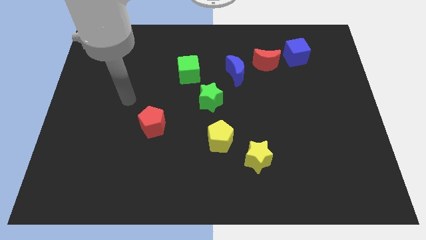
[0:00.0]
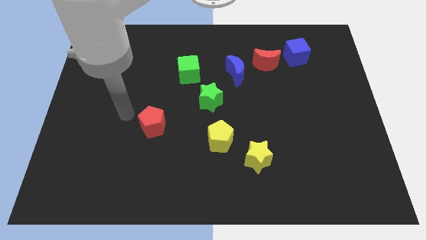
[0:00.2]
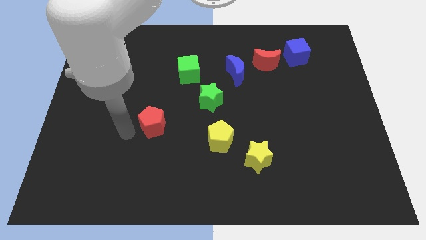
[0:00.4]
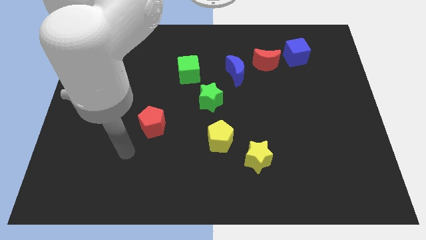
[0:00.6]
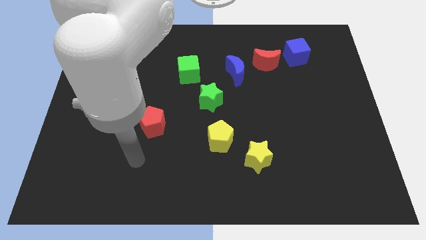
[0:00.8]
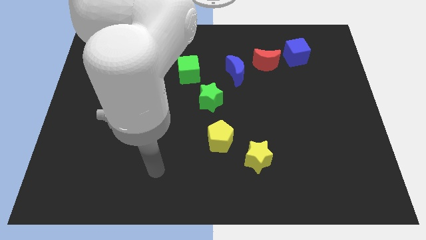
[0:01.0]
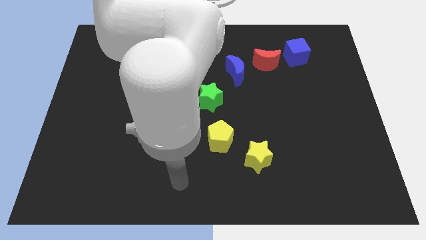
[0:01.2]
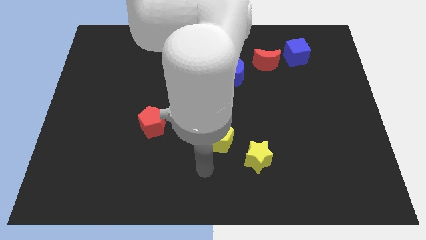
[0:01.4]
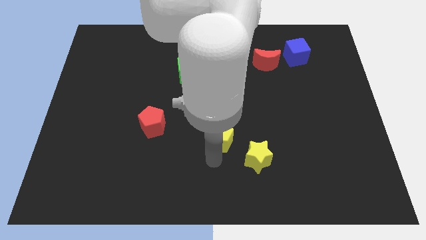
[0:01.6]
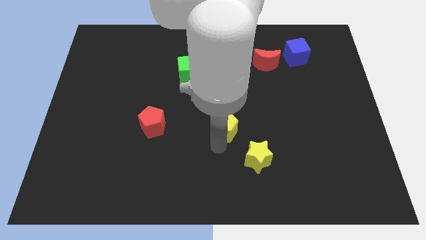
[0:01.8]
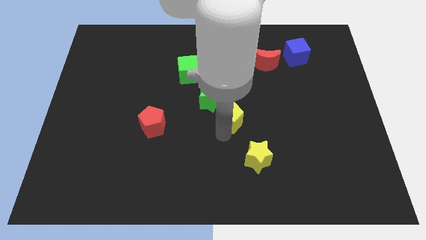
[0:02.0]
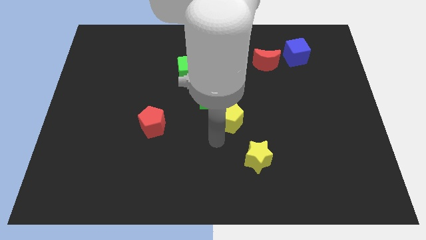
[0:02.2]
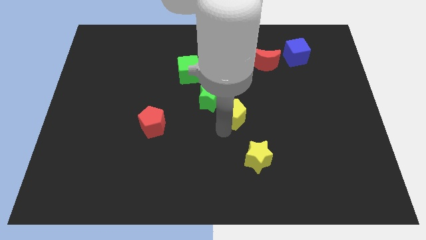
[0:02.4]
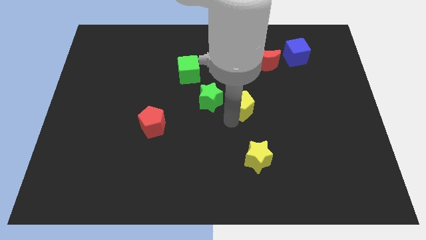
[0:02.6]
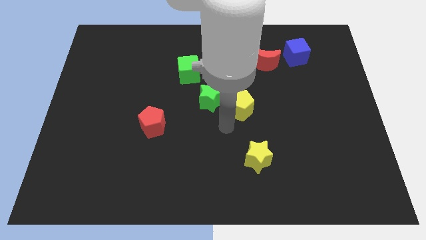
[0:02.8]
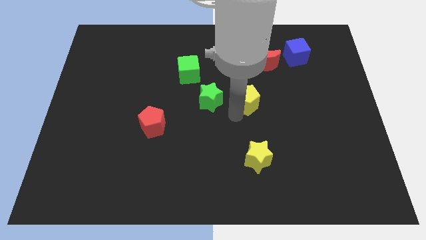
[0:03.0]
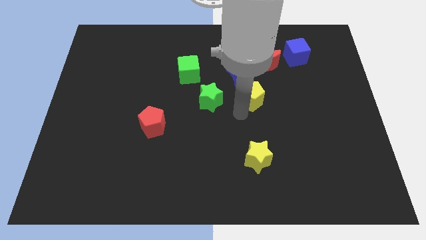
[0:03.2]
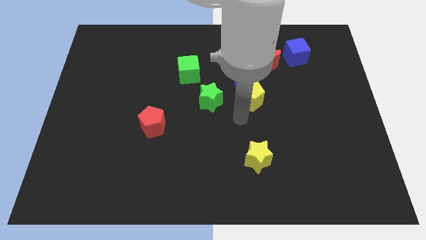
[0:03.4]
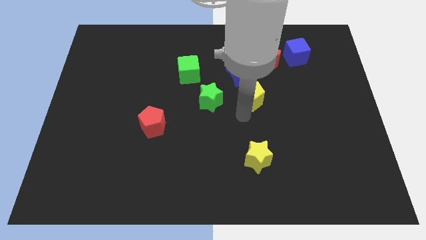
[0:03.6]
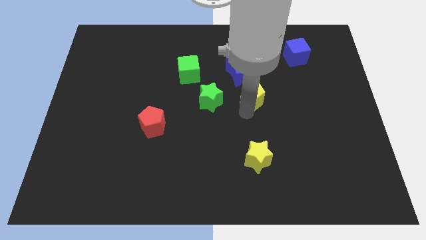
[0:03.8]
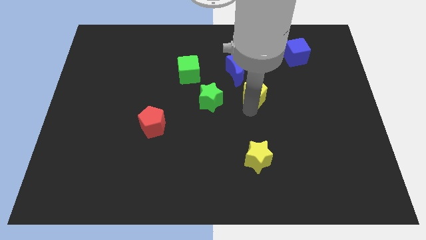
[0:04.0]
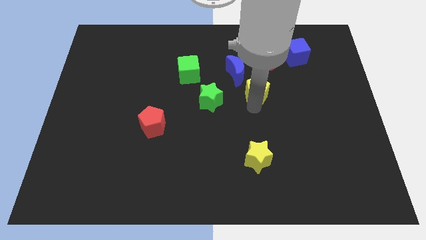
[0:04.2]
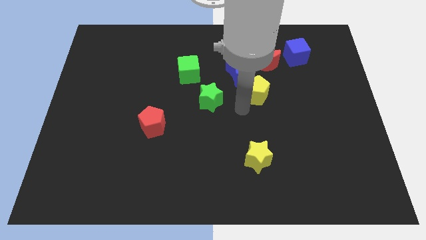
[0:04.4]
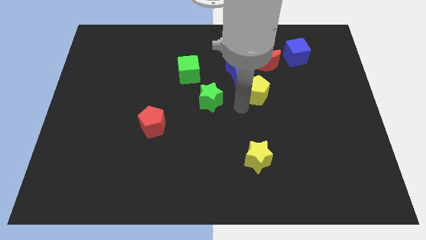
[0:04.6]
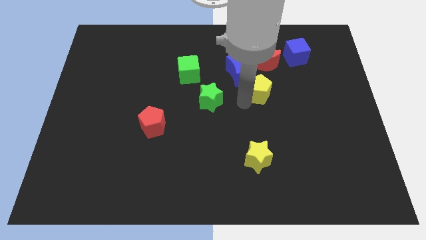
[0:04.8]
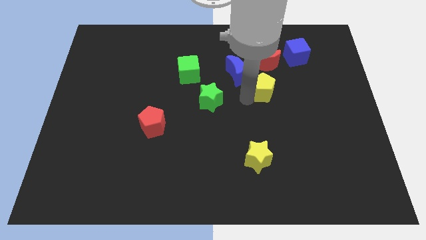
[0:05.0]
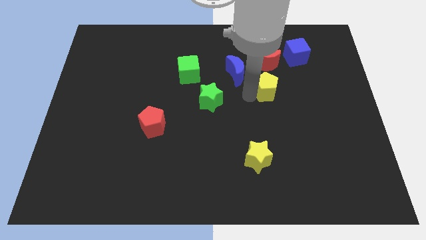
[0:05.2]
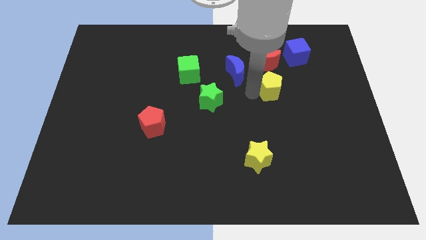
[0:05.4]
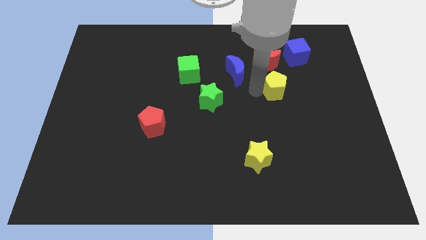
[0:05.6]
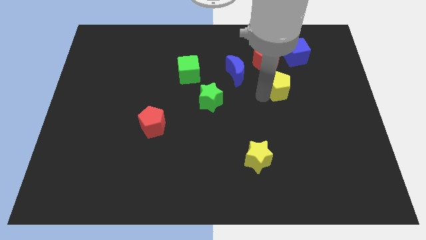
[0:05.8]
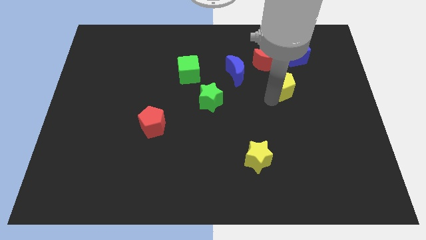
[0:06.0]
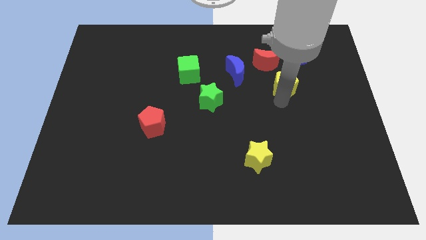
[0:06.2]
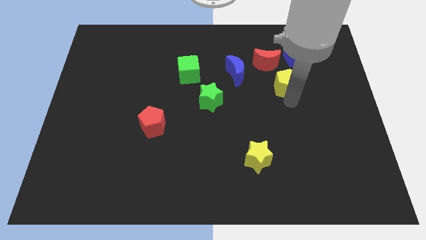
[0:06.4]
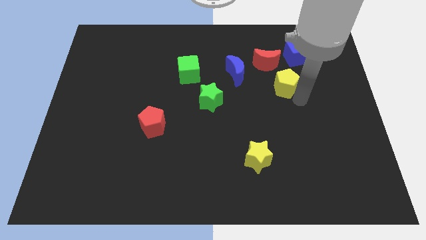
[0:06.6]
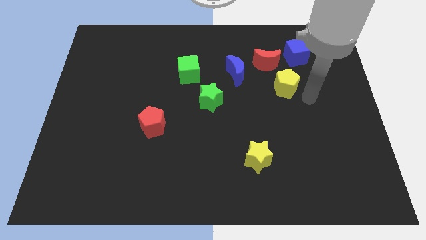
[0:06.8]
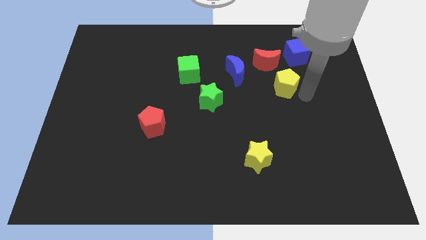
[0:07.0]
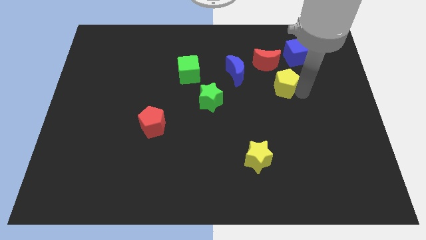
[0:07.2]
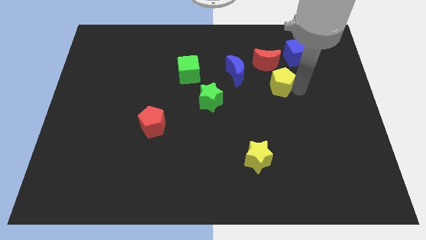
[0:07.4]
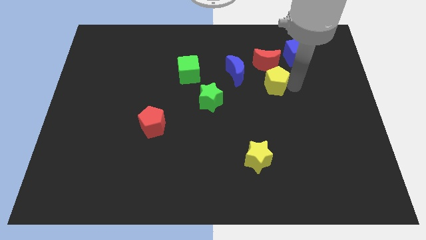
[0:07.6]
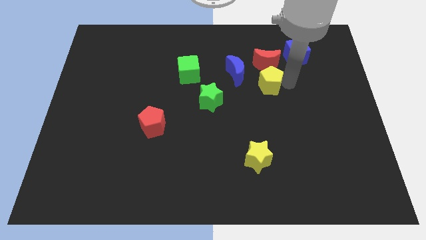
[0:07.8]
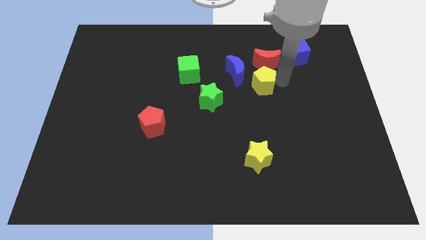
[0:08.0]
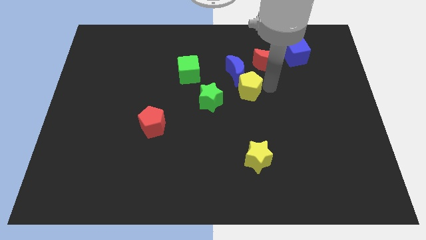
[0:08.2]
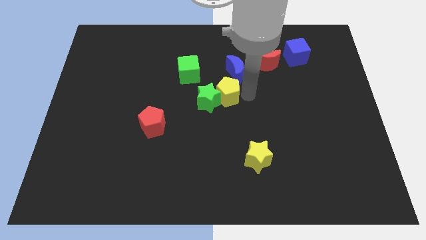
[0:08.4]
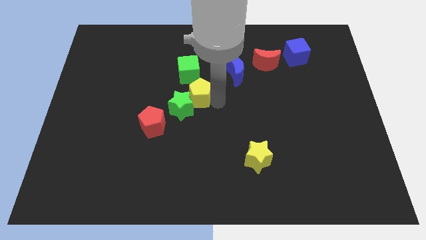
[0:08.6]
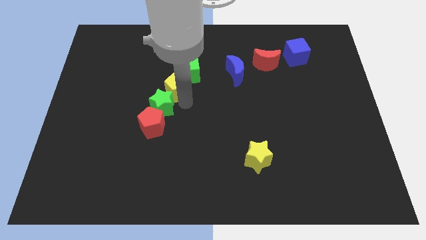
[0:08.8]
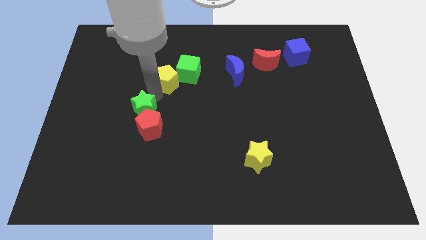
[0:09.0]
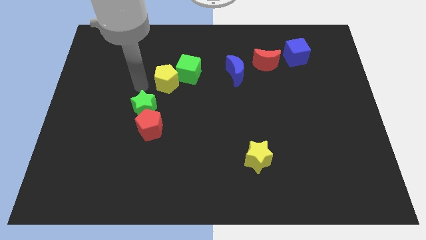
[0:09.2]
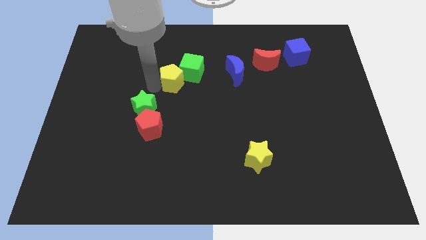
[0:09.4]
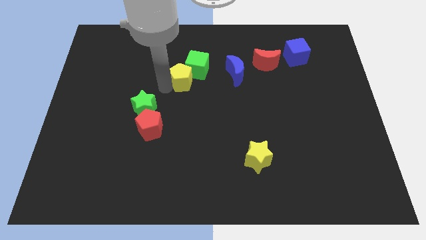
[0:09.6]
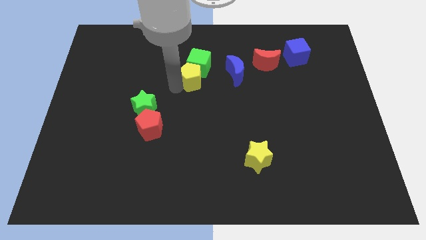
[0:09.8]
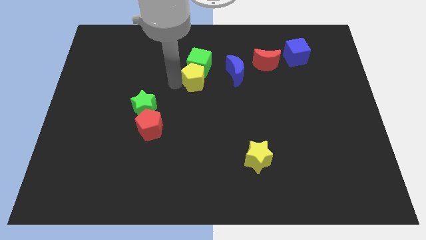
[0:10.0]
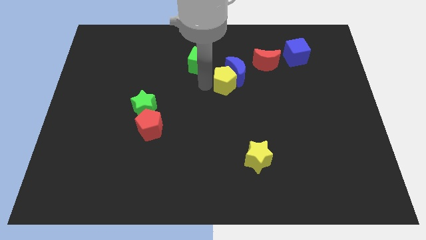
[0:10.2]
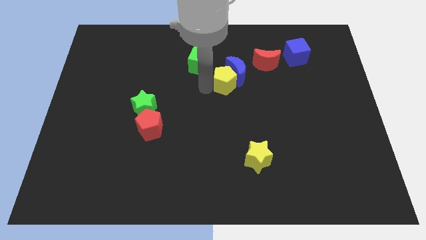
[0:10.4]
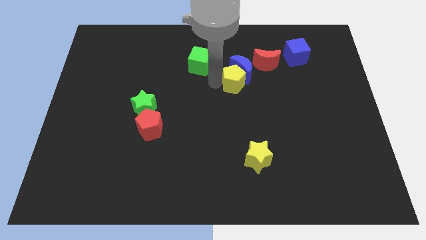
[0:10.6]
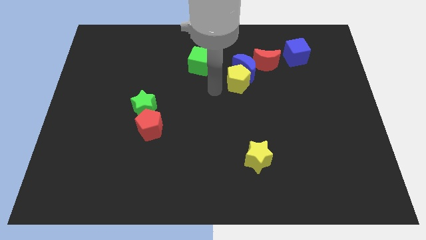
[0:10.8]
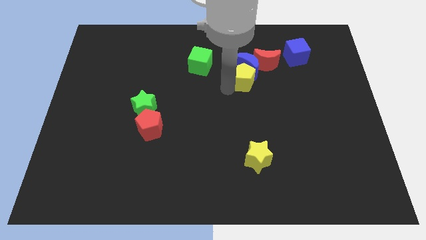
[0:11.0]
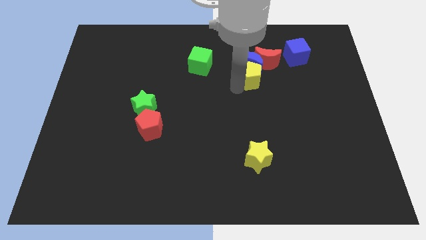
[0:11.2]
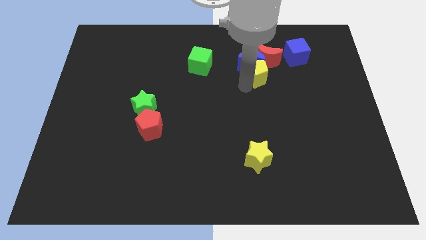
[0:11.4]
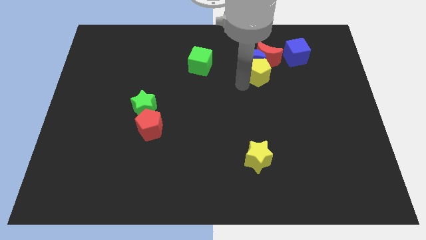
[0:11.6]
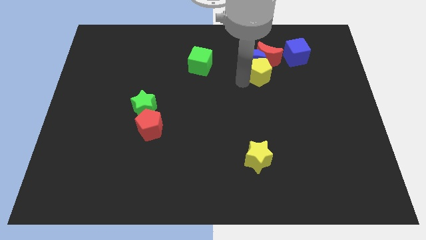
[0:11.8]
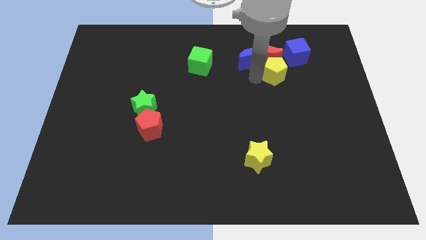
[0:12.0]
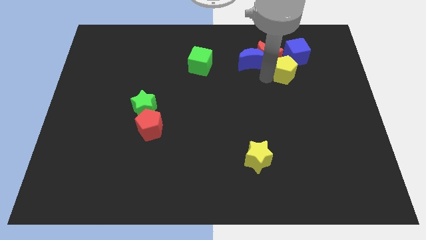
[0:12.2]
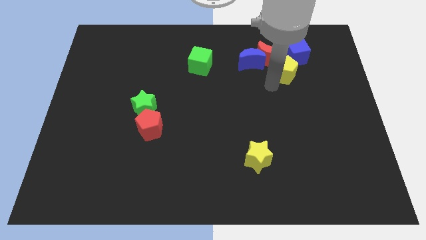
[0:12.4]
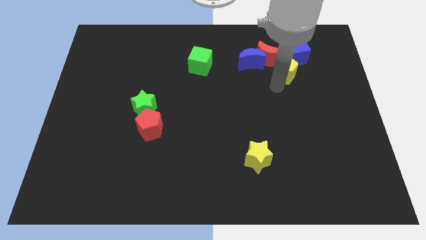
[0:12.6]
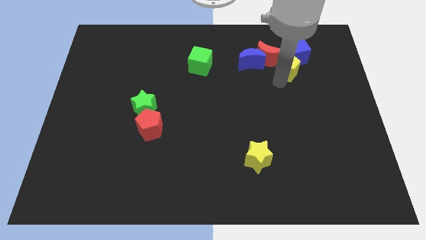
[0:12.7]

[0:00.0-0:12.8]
push the yellow pentagon close to the blue cube

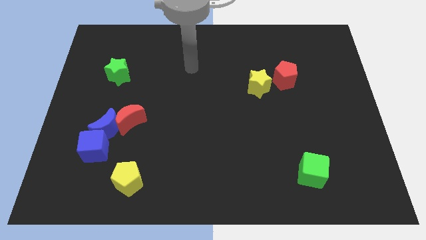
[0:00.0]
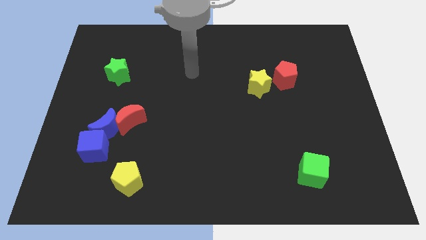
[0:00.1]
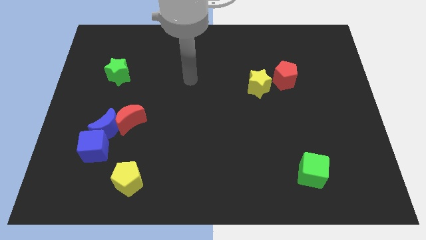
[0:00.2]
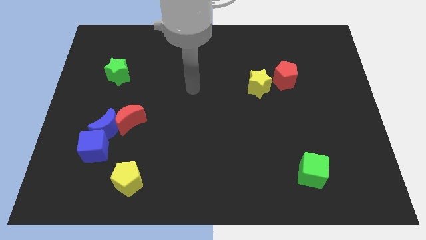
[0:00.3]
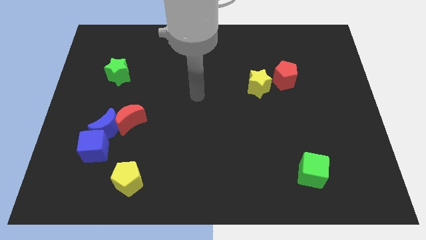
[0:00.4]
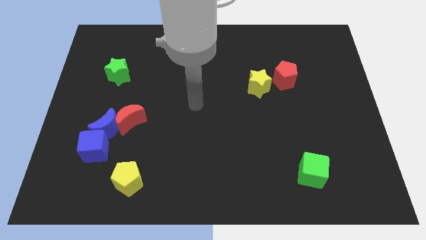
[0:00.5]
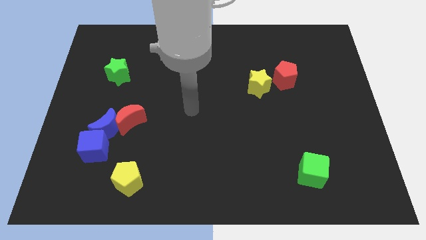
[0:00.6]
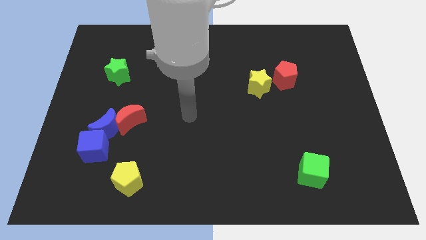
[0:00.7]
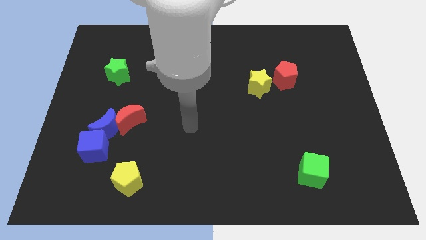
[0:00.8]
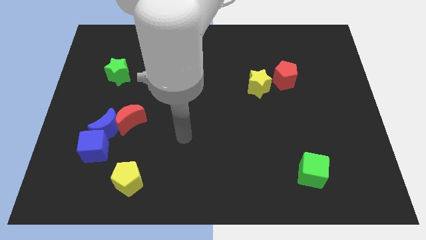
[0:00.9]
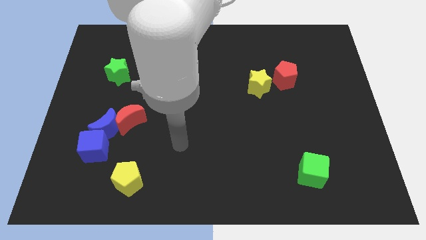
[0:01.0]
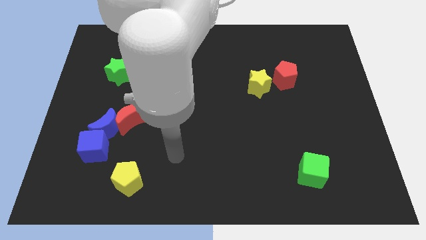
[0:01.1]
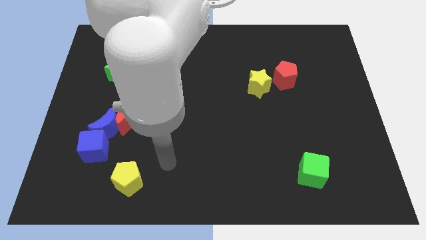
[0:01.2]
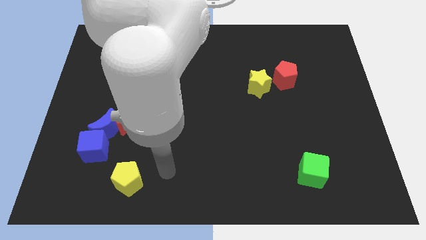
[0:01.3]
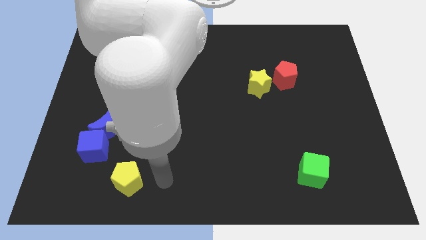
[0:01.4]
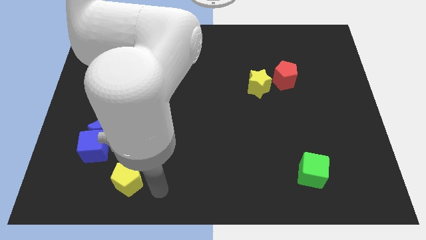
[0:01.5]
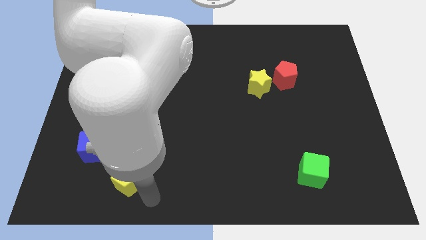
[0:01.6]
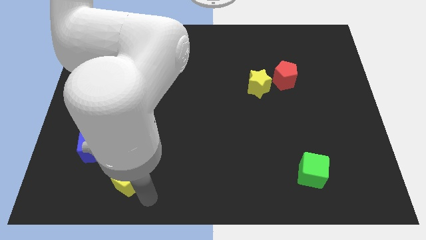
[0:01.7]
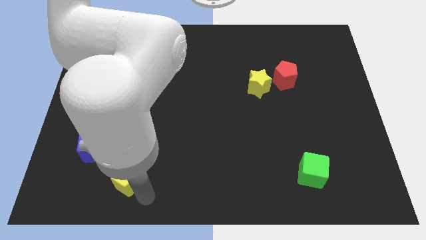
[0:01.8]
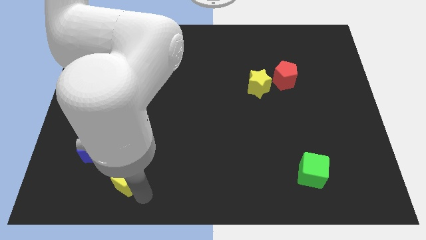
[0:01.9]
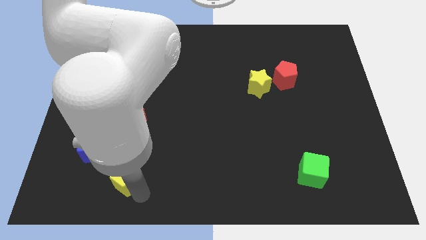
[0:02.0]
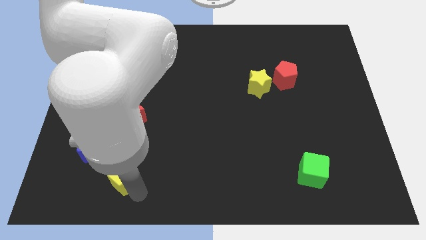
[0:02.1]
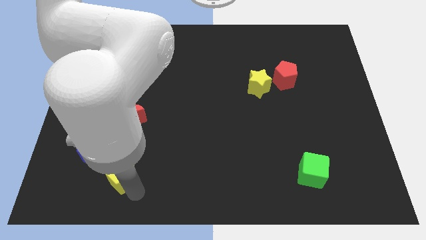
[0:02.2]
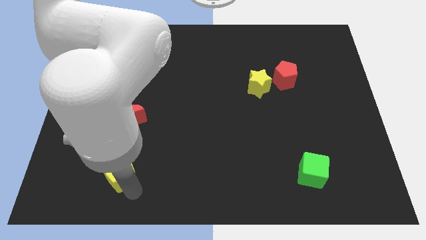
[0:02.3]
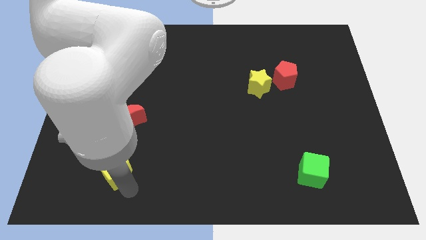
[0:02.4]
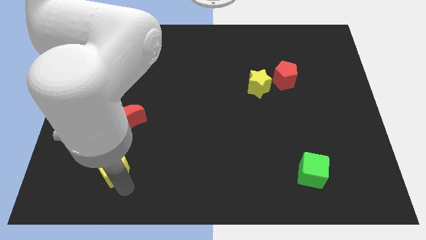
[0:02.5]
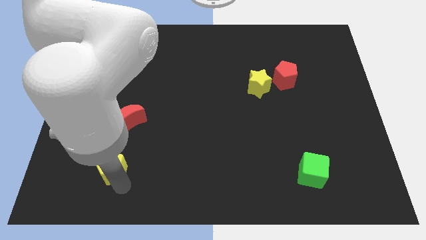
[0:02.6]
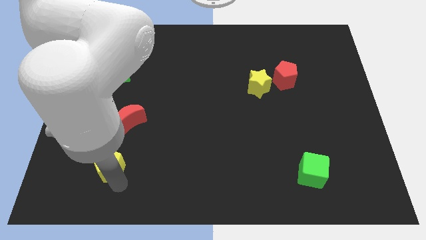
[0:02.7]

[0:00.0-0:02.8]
slide the yellow pentagon close to the blue cube
